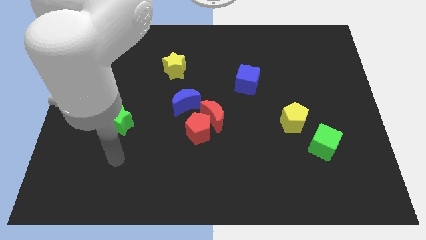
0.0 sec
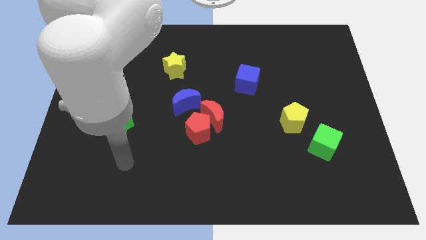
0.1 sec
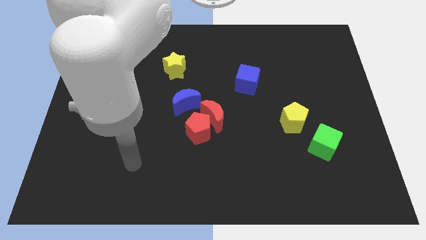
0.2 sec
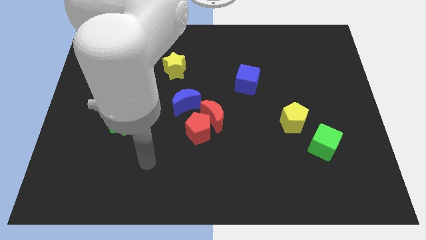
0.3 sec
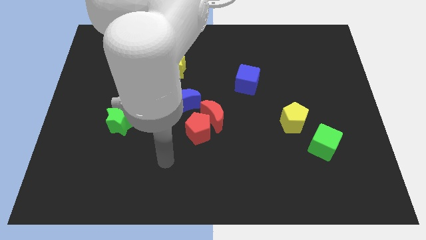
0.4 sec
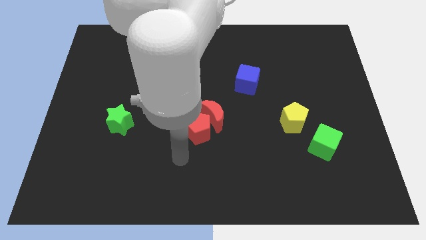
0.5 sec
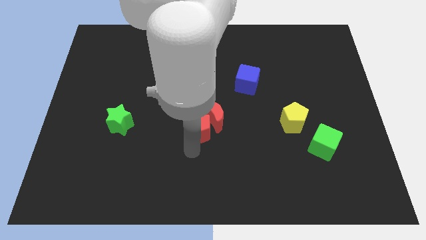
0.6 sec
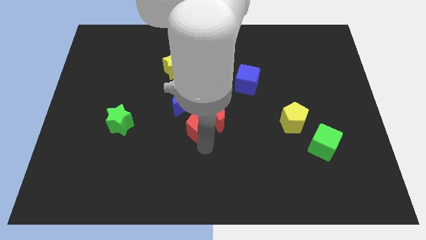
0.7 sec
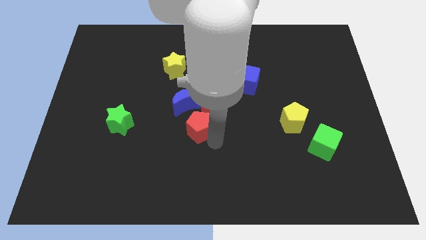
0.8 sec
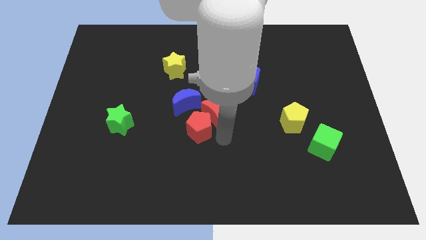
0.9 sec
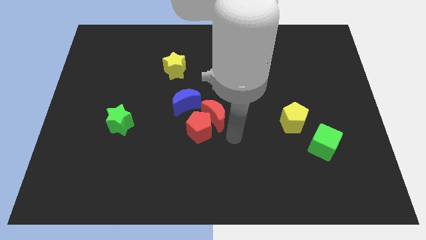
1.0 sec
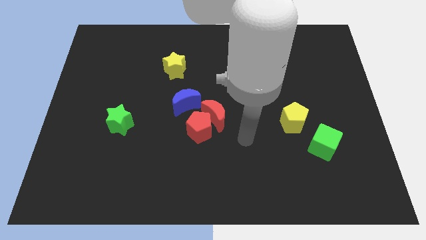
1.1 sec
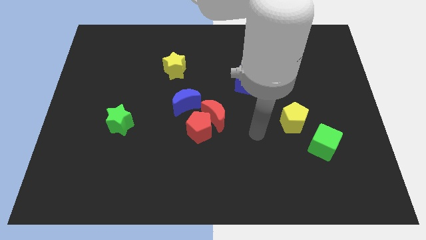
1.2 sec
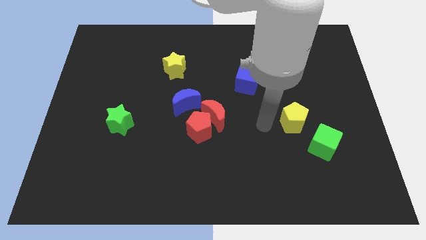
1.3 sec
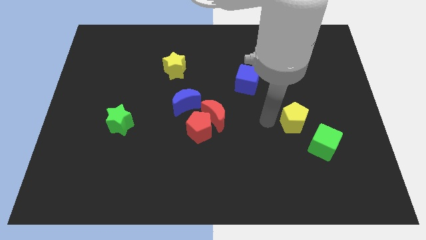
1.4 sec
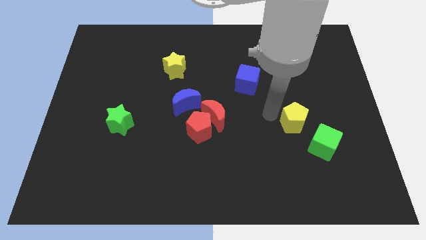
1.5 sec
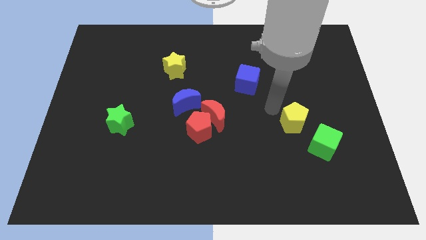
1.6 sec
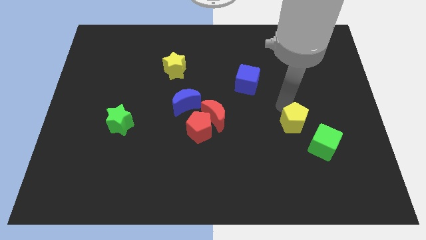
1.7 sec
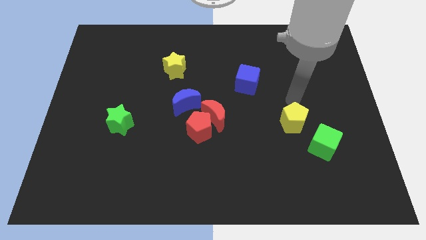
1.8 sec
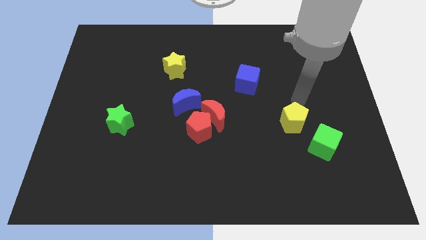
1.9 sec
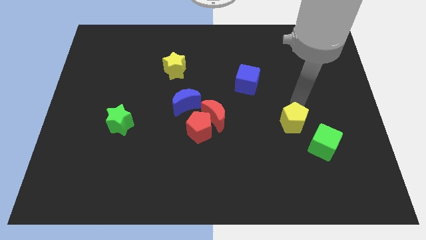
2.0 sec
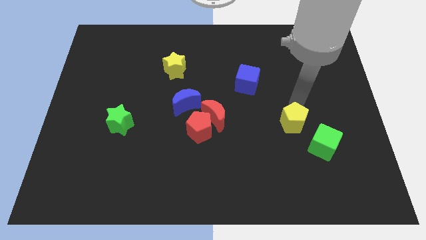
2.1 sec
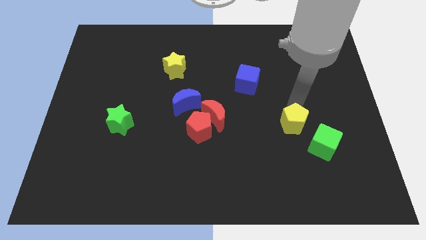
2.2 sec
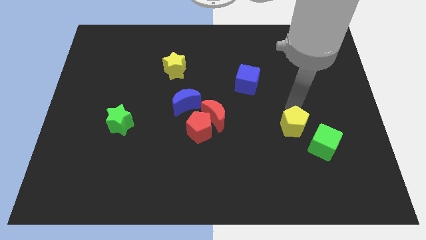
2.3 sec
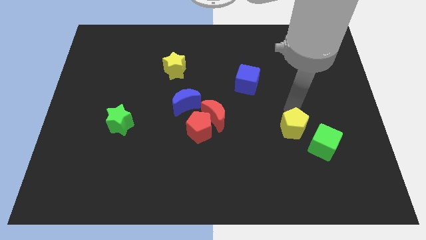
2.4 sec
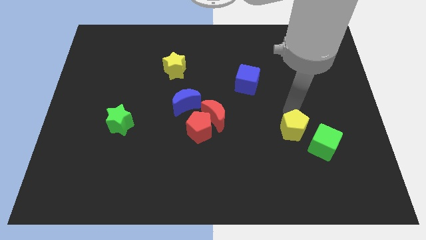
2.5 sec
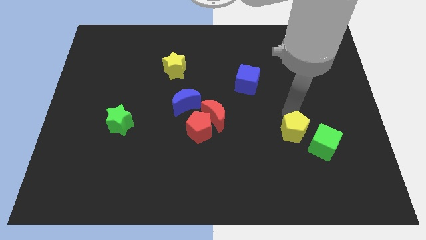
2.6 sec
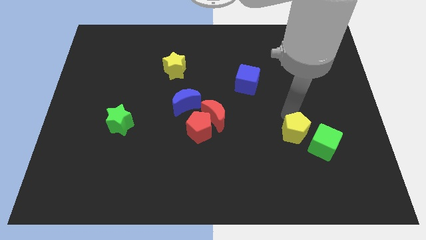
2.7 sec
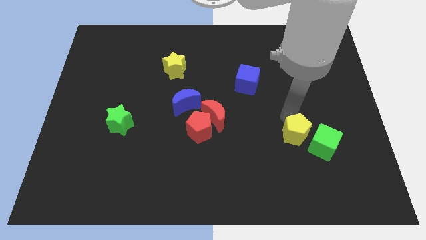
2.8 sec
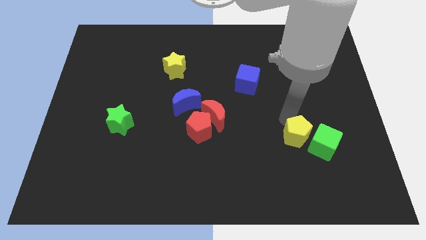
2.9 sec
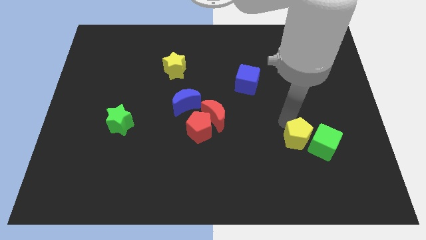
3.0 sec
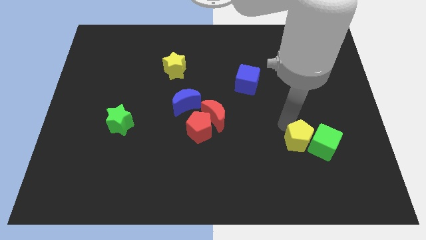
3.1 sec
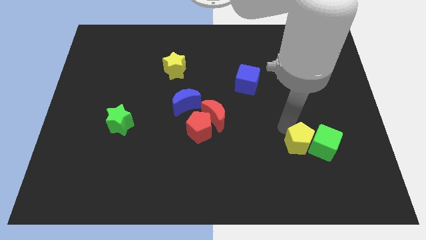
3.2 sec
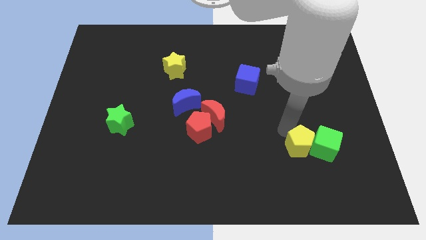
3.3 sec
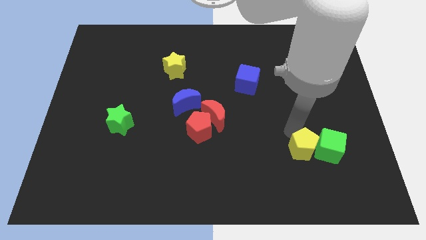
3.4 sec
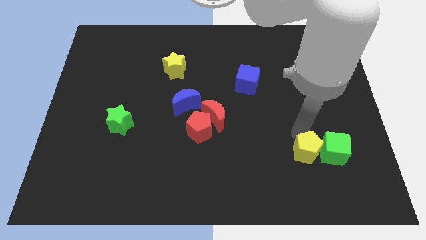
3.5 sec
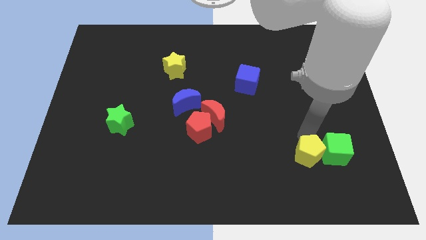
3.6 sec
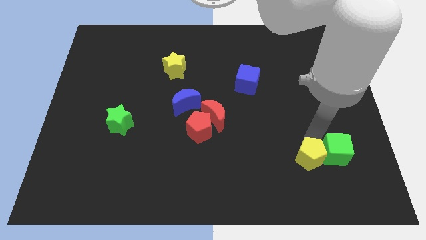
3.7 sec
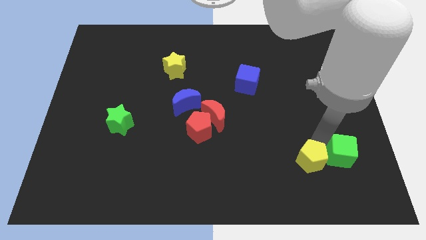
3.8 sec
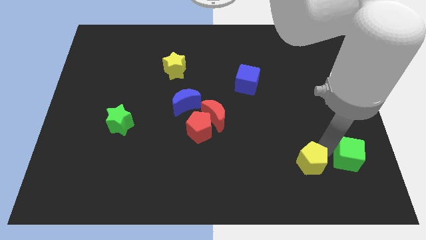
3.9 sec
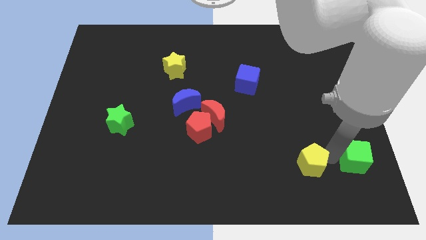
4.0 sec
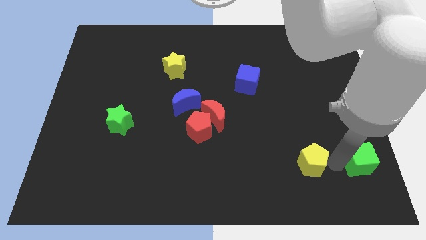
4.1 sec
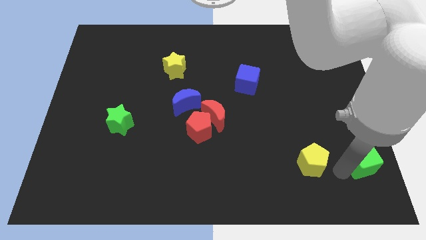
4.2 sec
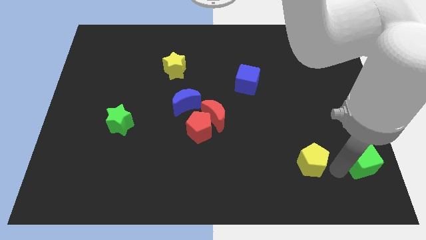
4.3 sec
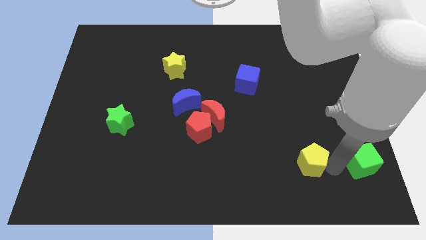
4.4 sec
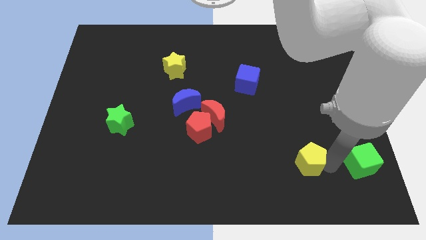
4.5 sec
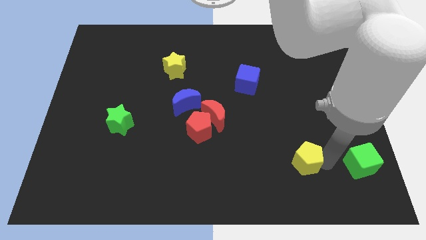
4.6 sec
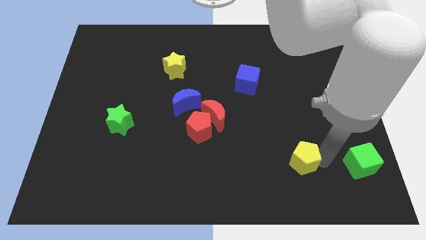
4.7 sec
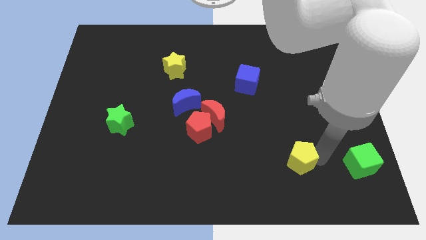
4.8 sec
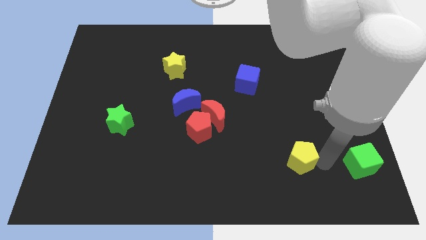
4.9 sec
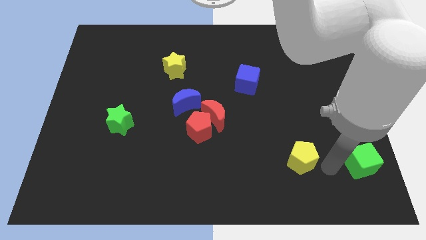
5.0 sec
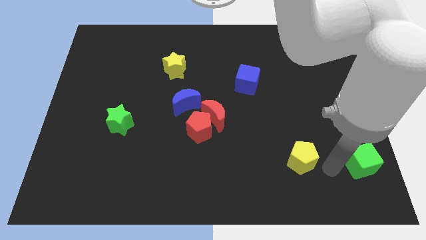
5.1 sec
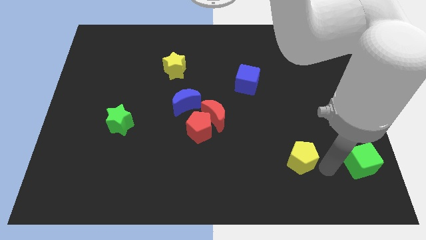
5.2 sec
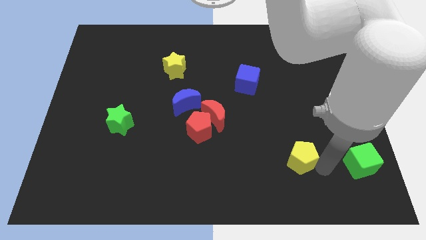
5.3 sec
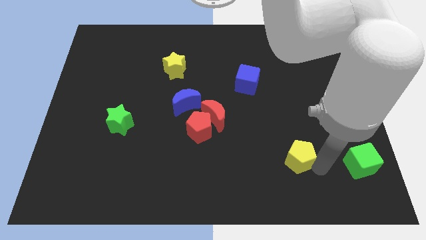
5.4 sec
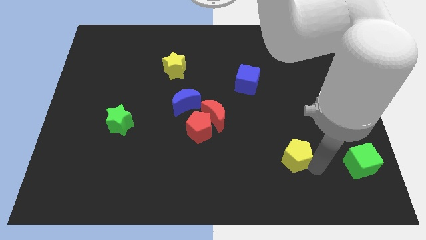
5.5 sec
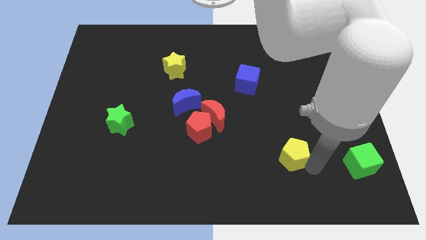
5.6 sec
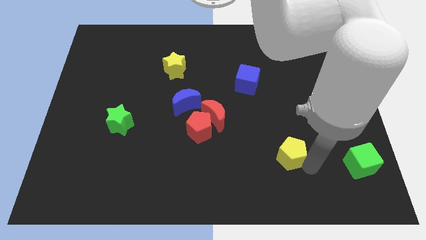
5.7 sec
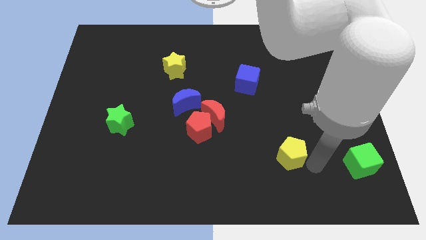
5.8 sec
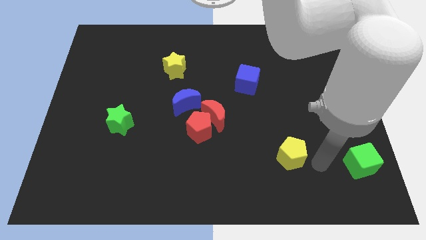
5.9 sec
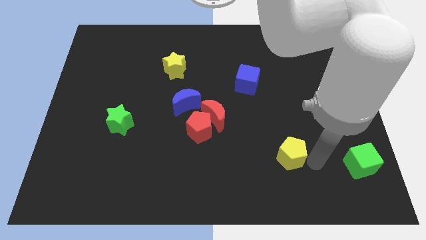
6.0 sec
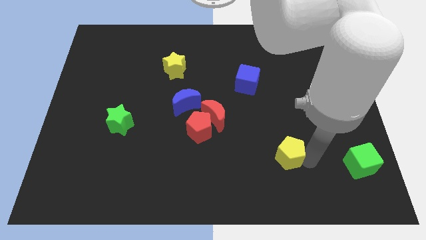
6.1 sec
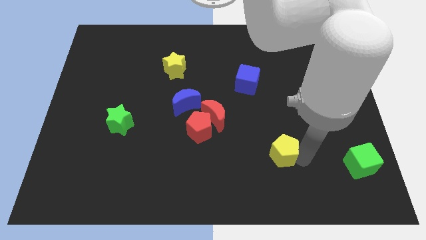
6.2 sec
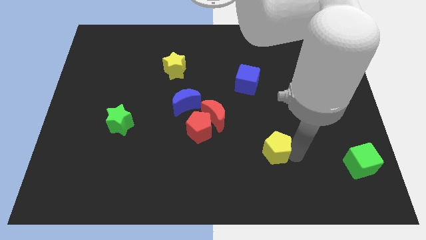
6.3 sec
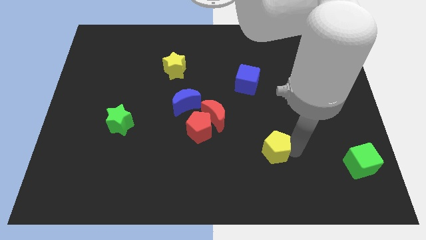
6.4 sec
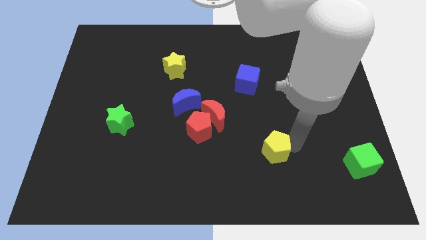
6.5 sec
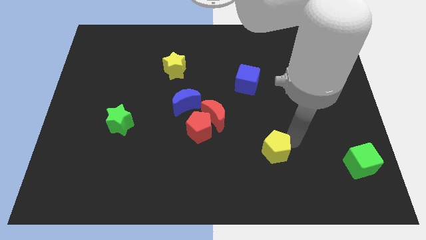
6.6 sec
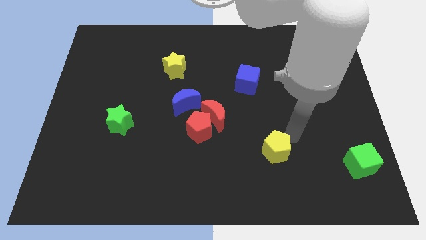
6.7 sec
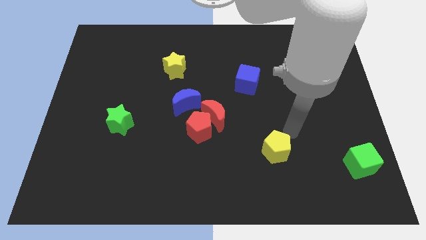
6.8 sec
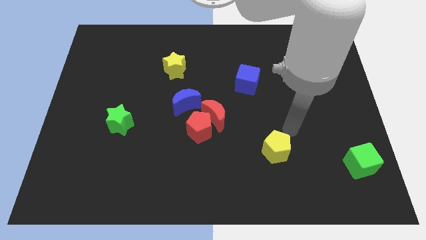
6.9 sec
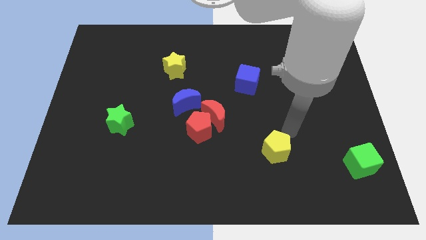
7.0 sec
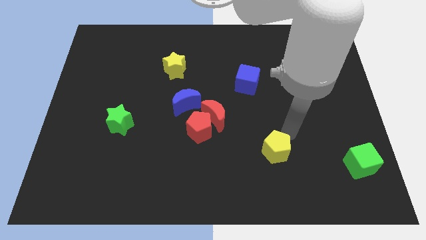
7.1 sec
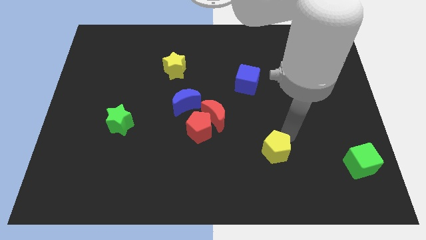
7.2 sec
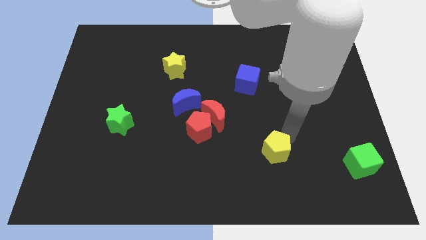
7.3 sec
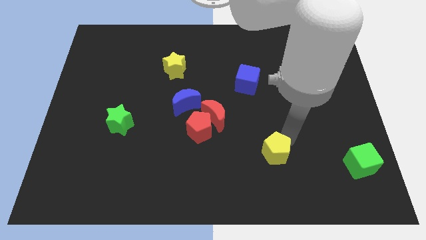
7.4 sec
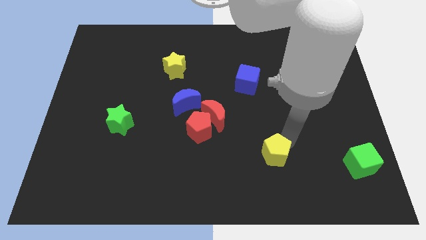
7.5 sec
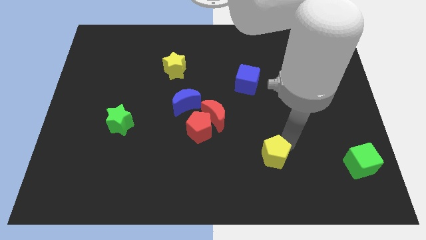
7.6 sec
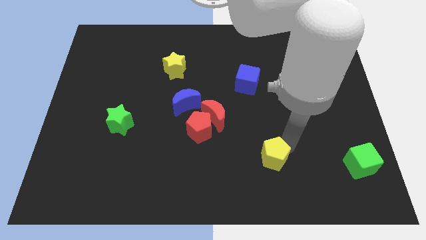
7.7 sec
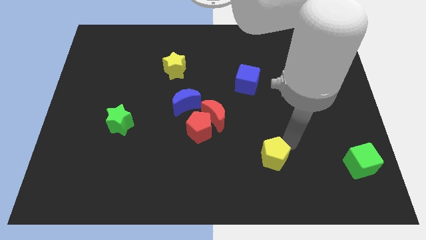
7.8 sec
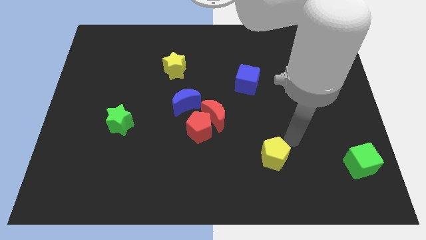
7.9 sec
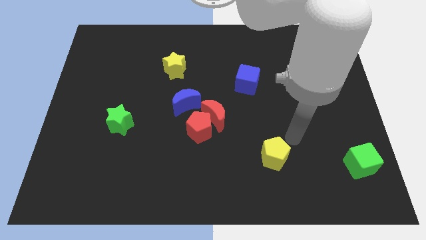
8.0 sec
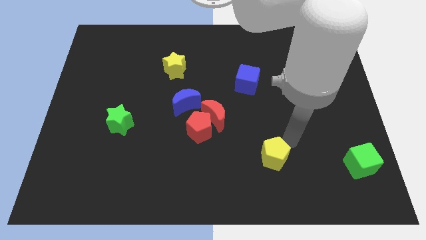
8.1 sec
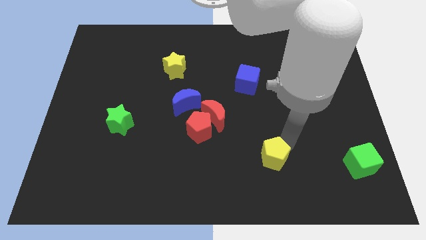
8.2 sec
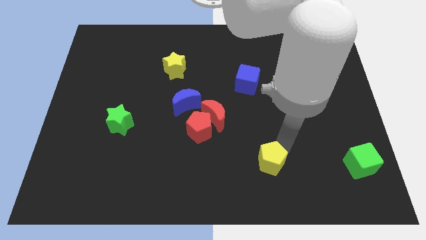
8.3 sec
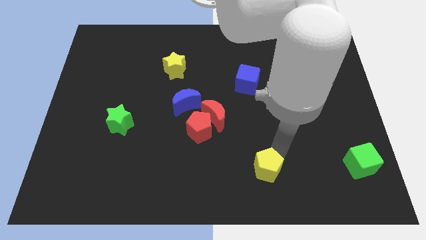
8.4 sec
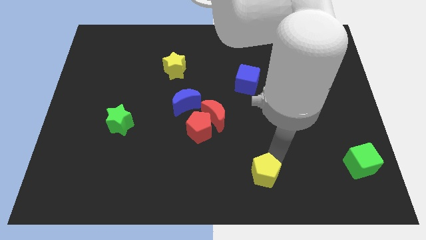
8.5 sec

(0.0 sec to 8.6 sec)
move the yellow pentagon to the bottom
